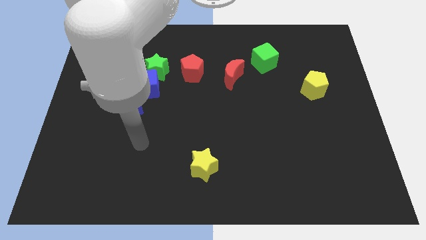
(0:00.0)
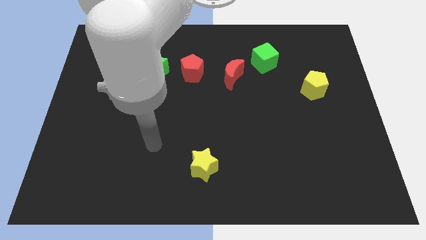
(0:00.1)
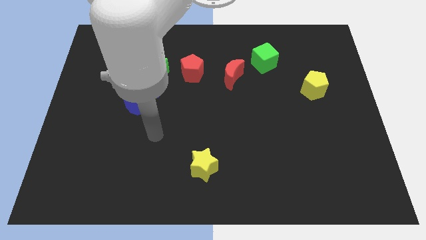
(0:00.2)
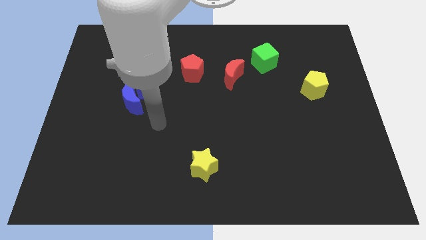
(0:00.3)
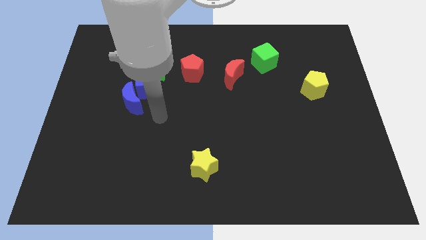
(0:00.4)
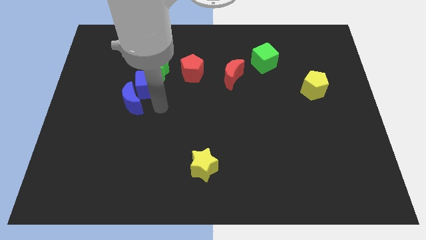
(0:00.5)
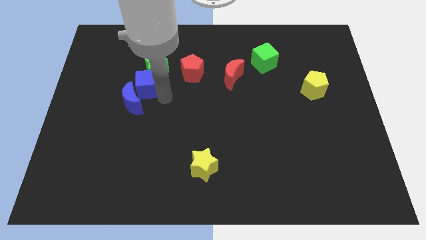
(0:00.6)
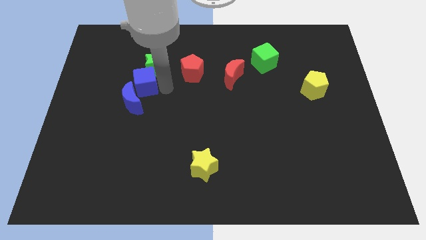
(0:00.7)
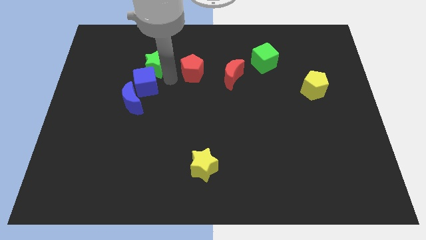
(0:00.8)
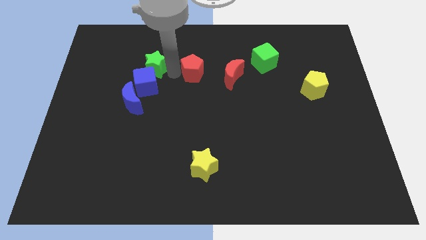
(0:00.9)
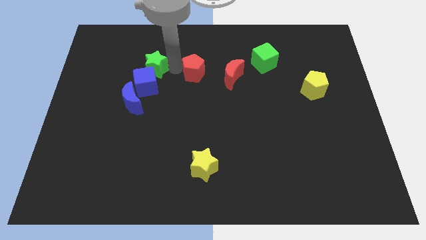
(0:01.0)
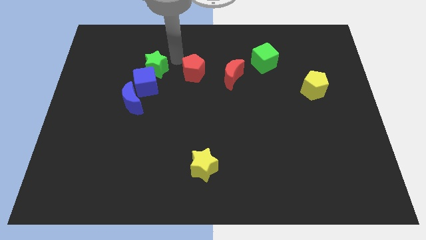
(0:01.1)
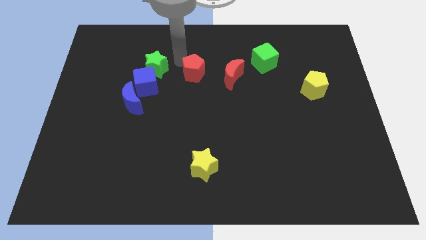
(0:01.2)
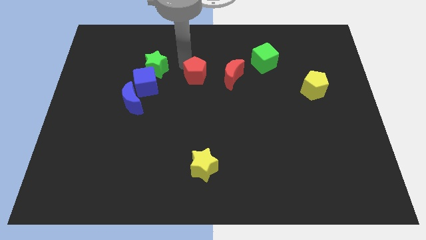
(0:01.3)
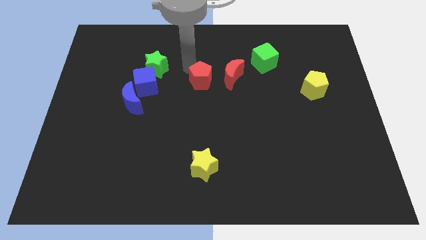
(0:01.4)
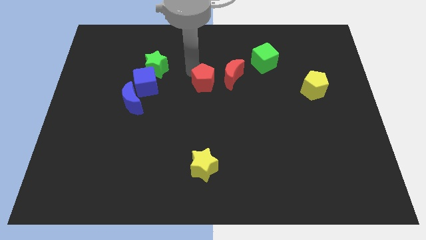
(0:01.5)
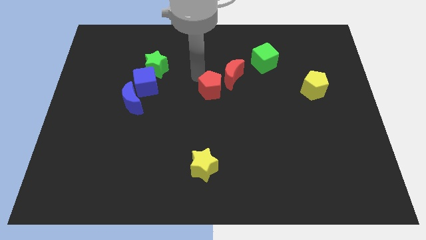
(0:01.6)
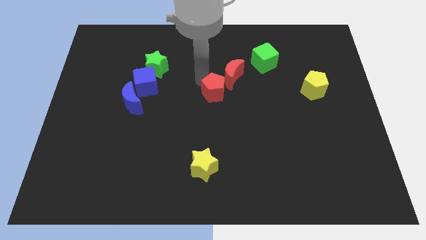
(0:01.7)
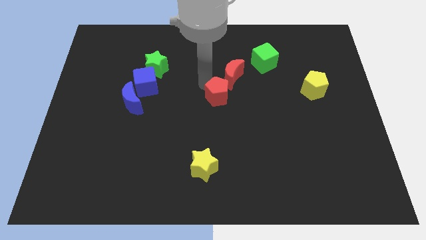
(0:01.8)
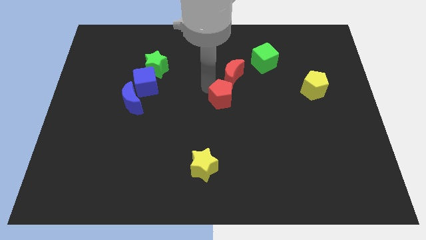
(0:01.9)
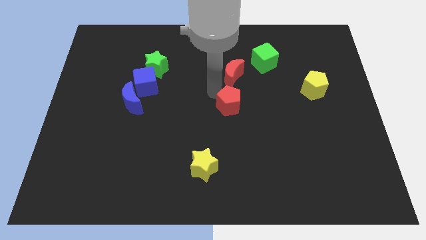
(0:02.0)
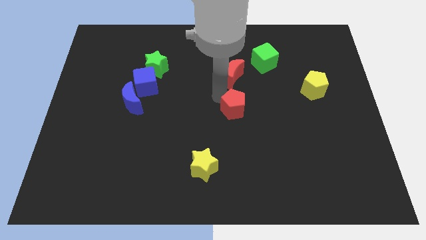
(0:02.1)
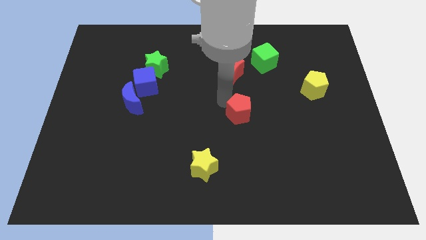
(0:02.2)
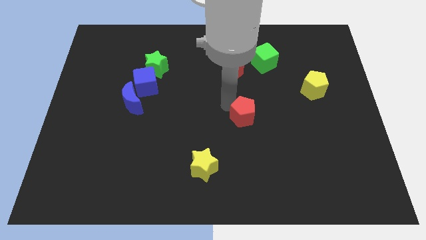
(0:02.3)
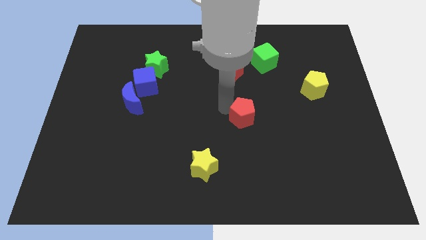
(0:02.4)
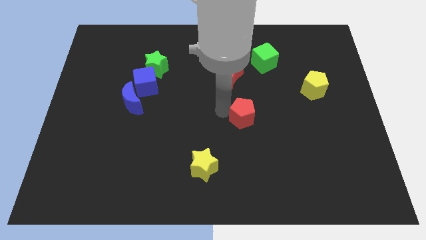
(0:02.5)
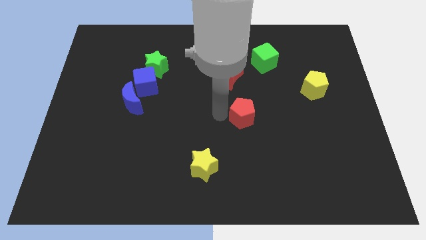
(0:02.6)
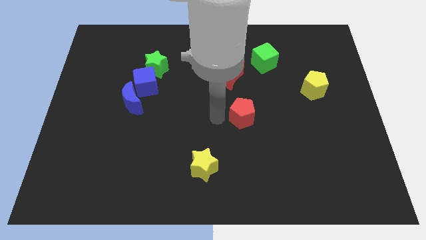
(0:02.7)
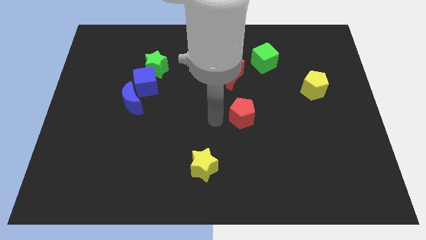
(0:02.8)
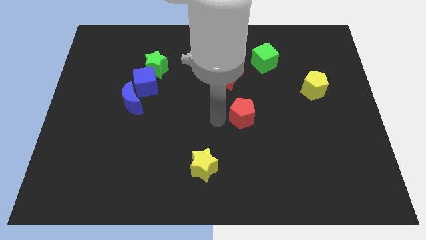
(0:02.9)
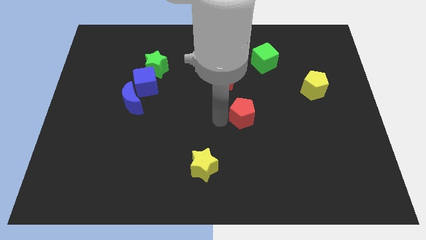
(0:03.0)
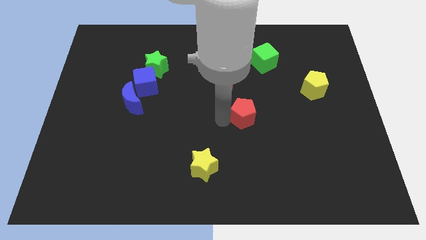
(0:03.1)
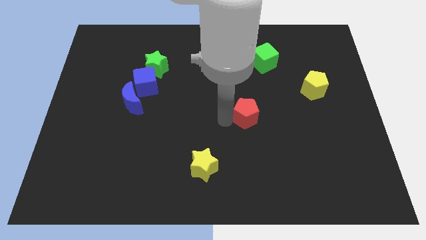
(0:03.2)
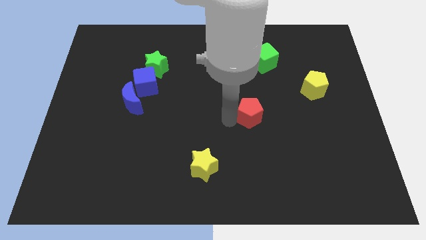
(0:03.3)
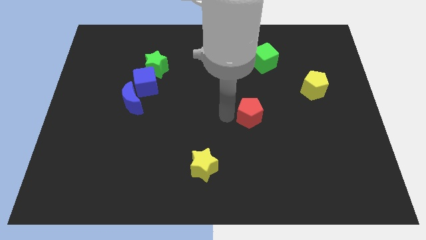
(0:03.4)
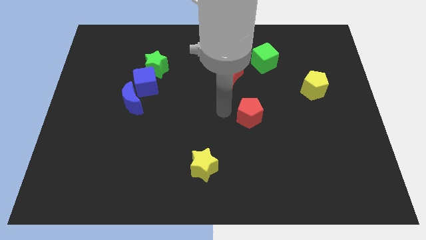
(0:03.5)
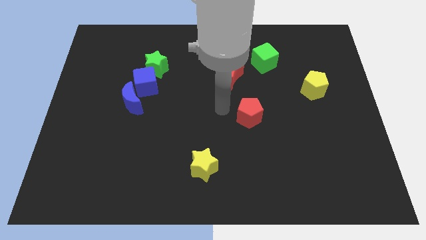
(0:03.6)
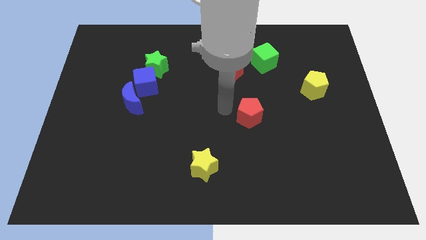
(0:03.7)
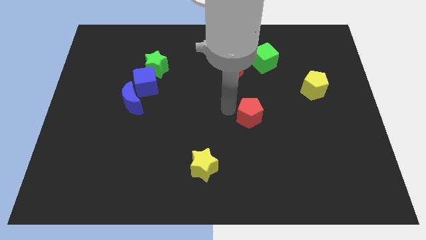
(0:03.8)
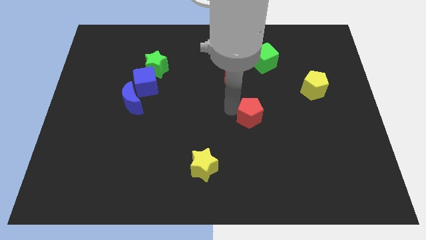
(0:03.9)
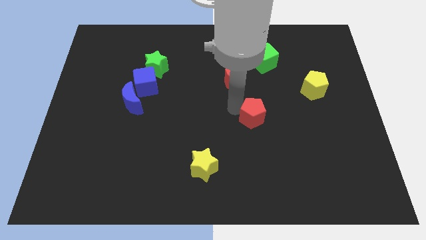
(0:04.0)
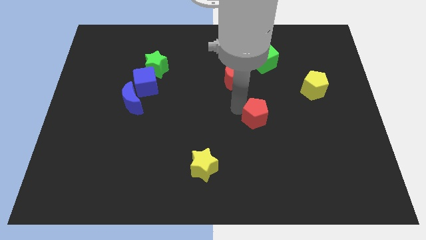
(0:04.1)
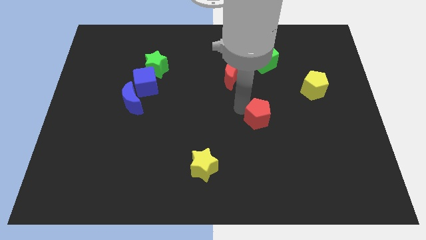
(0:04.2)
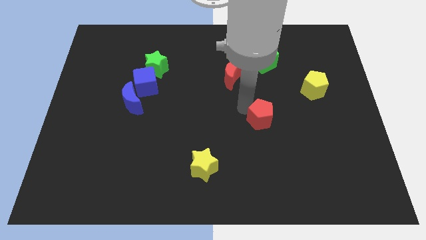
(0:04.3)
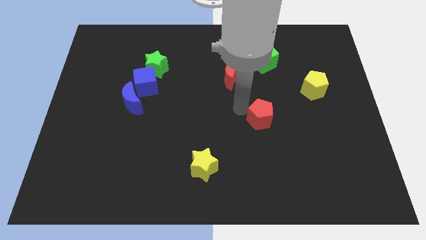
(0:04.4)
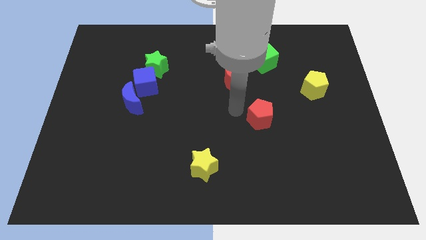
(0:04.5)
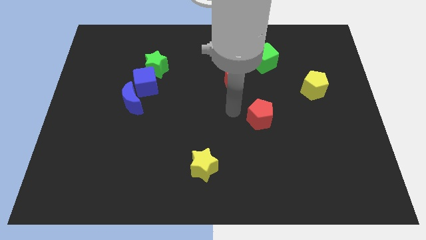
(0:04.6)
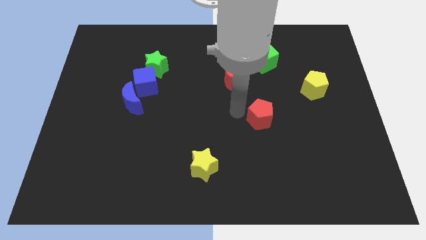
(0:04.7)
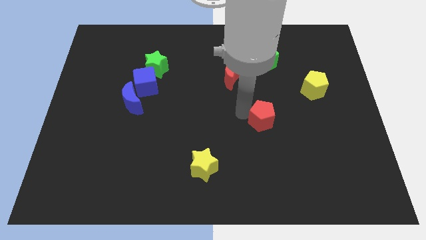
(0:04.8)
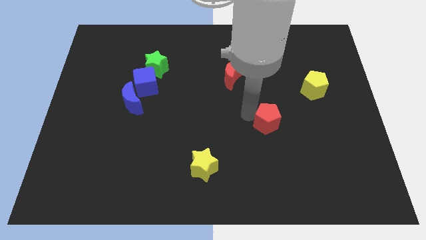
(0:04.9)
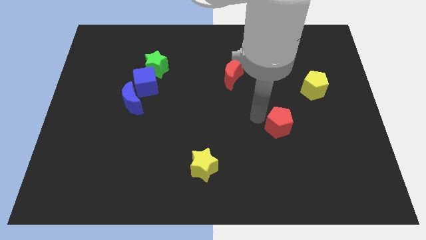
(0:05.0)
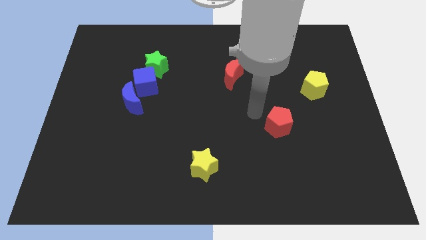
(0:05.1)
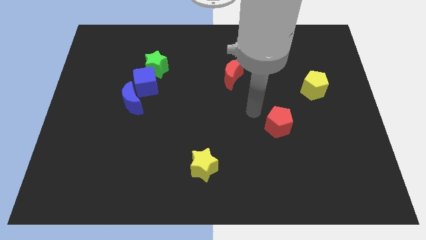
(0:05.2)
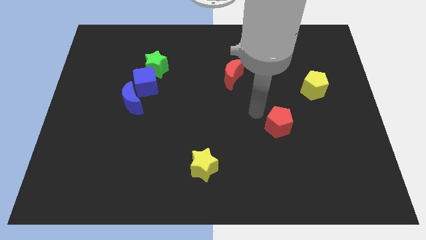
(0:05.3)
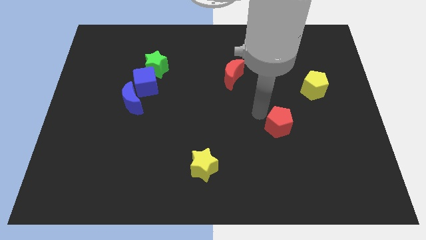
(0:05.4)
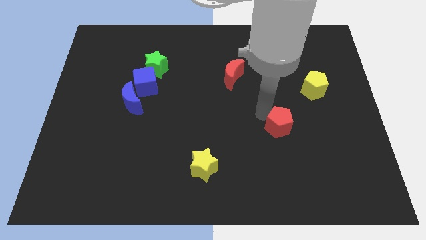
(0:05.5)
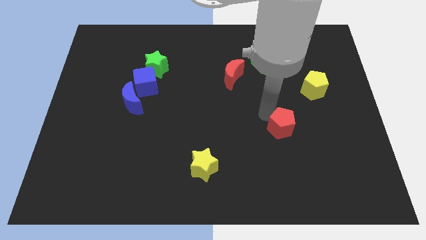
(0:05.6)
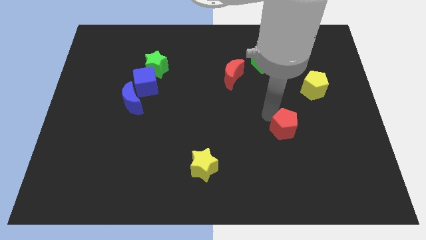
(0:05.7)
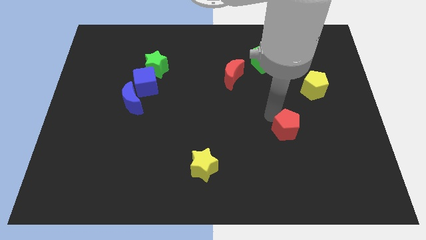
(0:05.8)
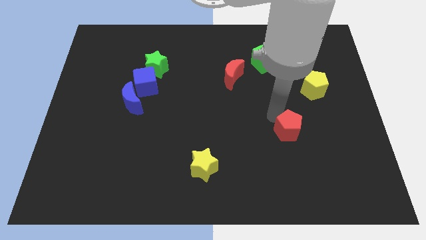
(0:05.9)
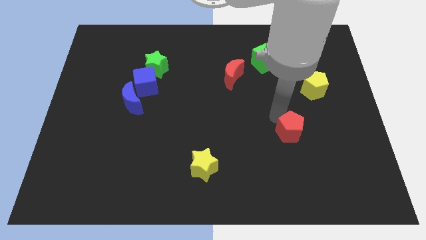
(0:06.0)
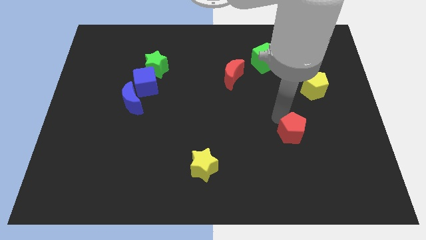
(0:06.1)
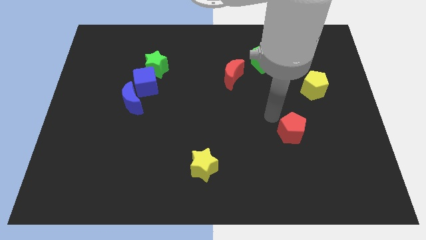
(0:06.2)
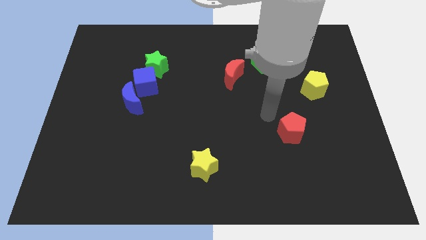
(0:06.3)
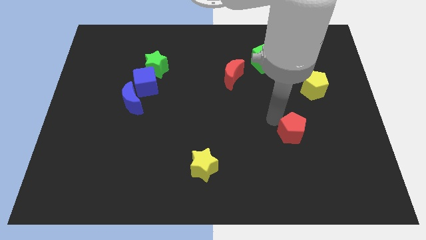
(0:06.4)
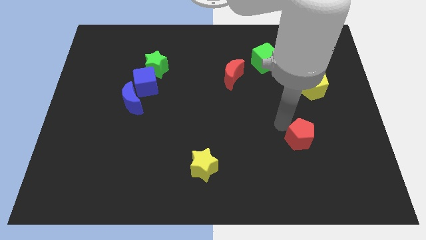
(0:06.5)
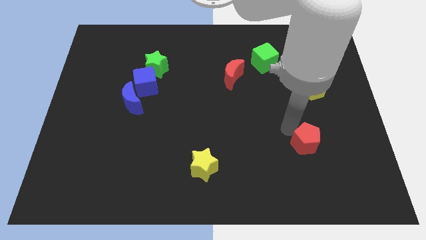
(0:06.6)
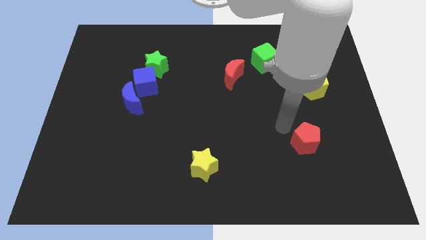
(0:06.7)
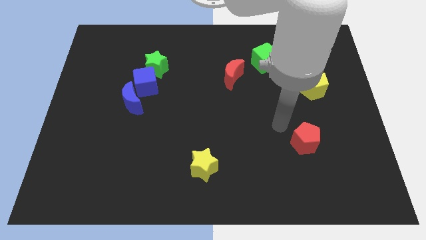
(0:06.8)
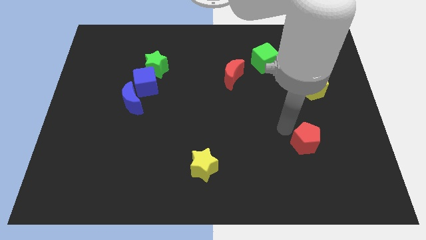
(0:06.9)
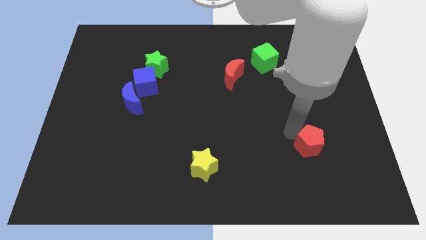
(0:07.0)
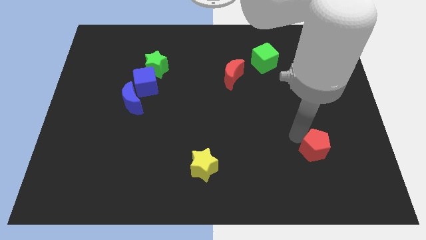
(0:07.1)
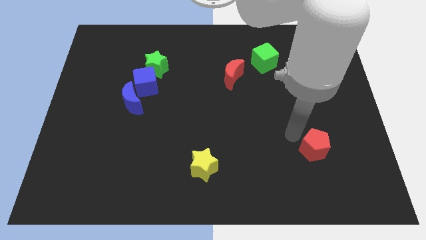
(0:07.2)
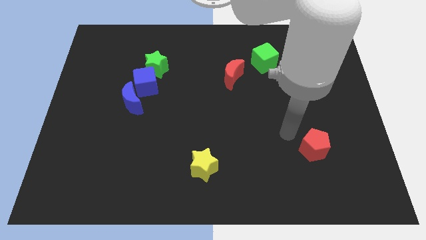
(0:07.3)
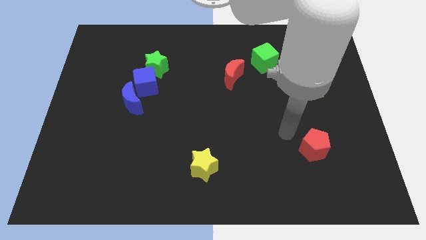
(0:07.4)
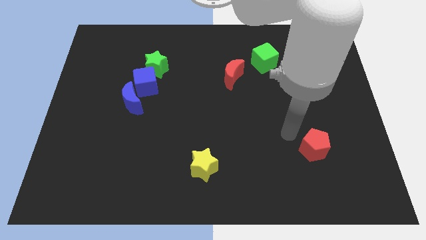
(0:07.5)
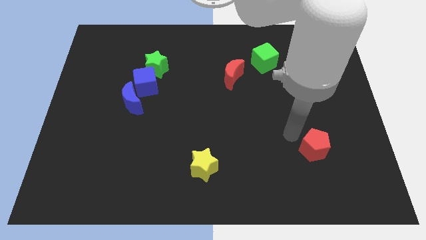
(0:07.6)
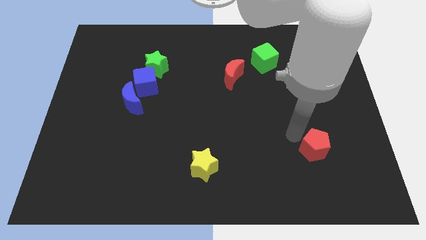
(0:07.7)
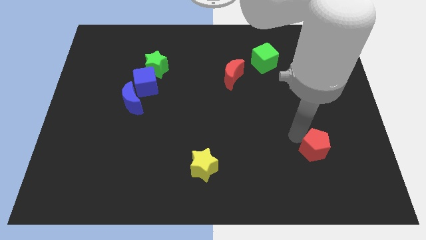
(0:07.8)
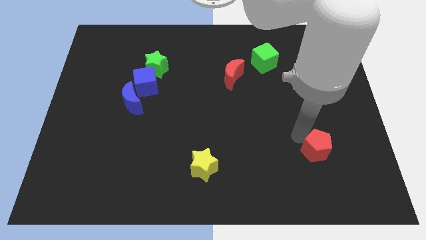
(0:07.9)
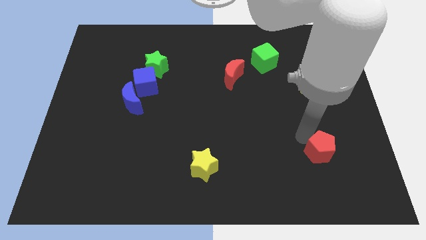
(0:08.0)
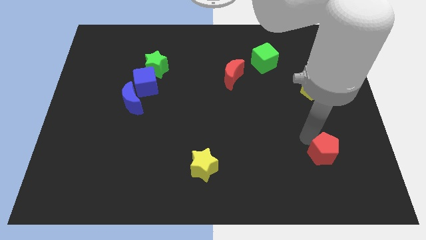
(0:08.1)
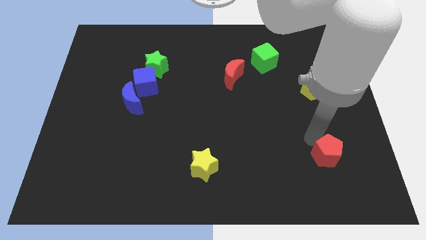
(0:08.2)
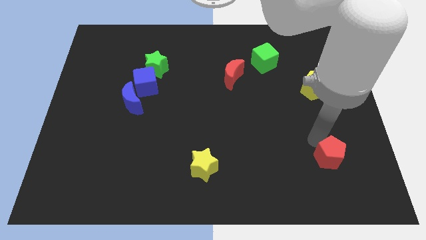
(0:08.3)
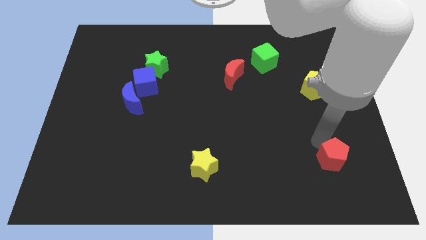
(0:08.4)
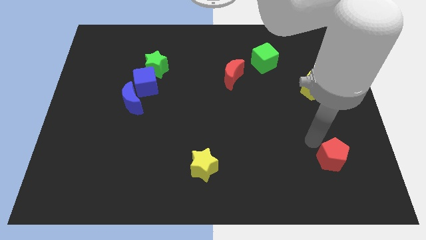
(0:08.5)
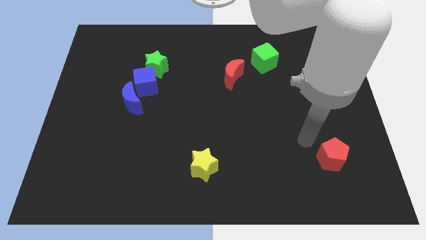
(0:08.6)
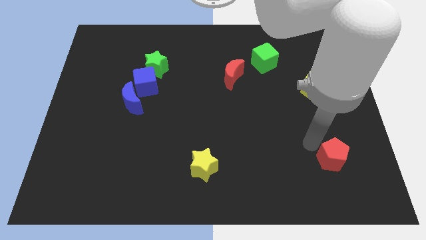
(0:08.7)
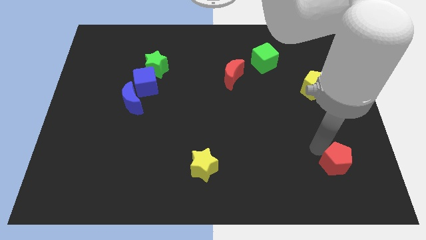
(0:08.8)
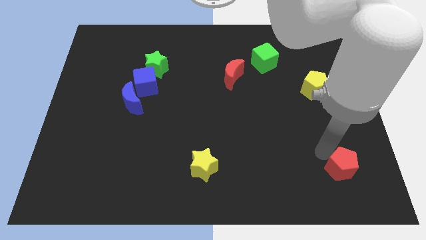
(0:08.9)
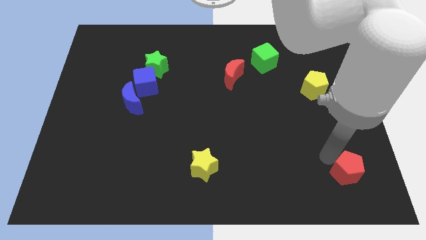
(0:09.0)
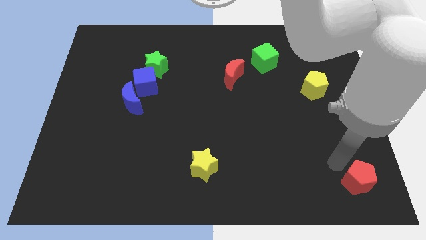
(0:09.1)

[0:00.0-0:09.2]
put the red pentagon to the bottom right of the board
